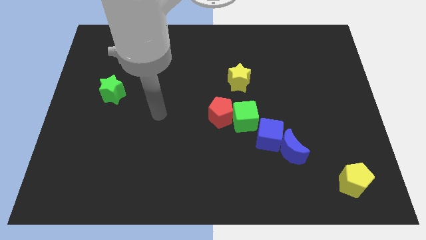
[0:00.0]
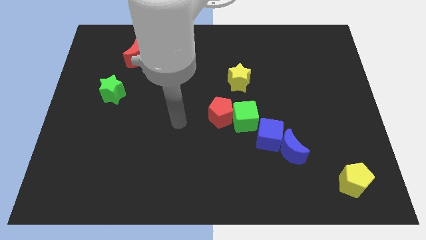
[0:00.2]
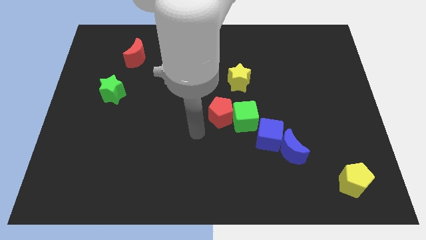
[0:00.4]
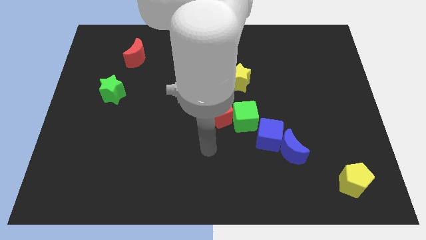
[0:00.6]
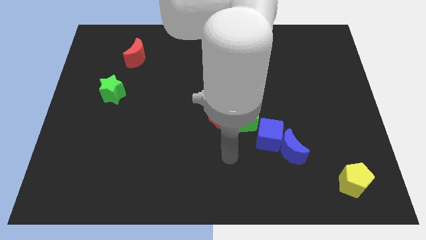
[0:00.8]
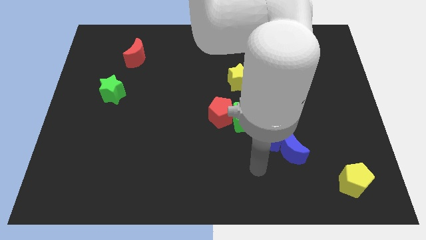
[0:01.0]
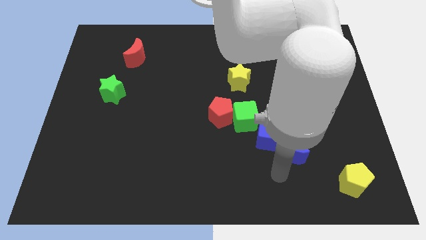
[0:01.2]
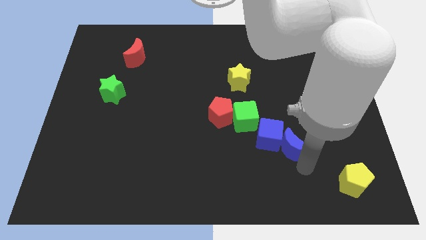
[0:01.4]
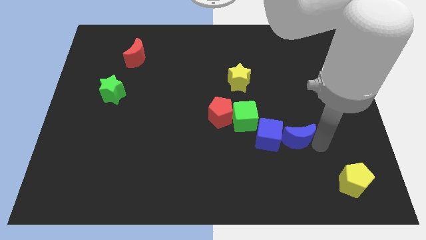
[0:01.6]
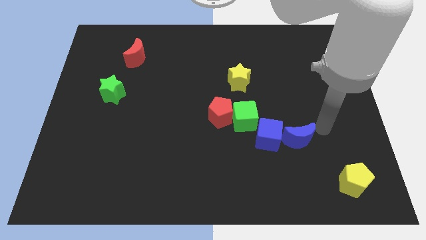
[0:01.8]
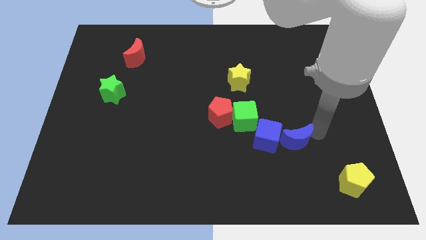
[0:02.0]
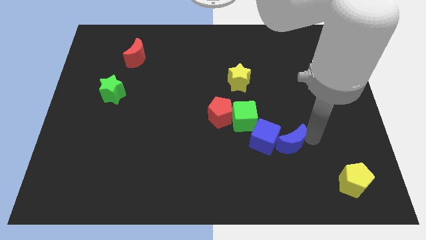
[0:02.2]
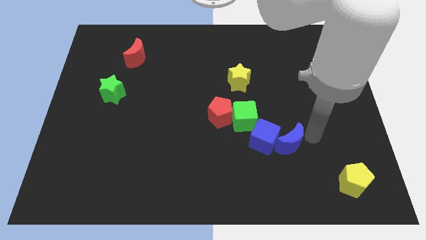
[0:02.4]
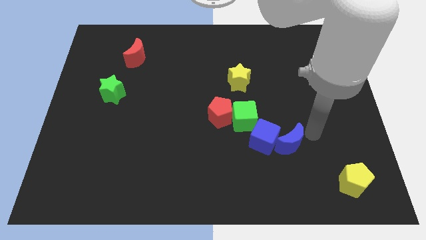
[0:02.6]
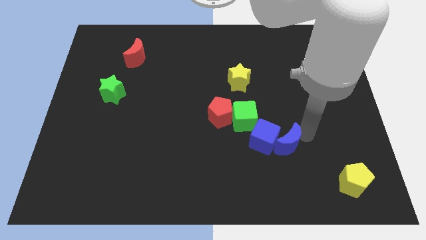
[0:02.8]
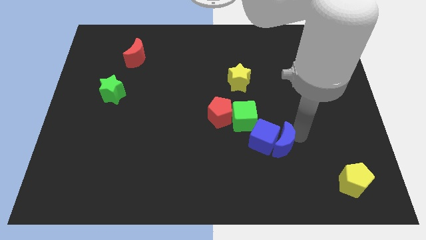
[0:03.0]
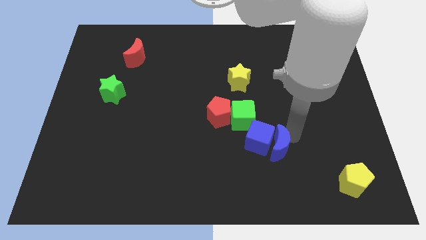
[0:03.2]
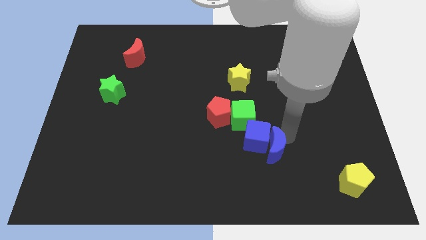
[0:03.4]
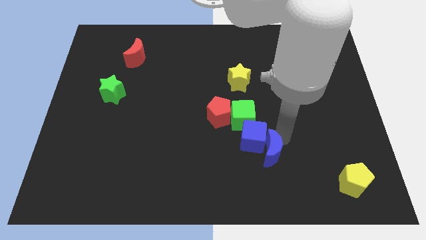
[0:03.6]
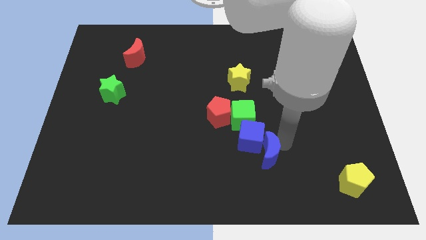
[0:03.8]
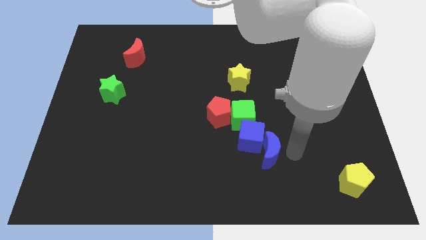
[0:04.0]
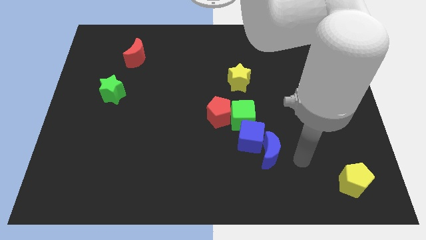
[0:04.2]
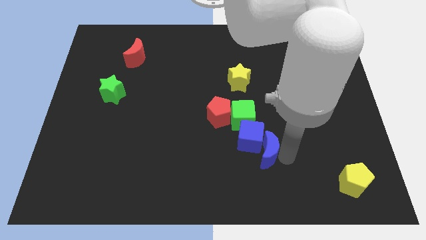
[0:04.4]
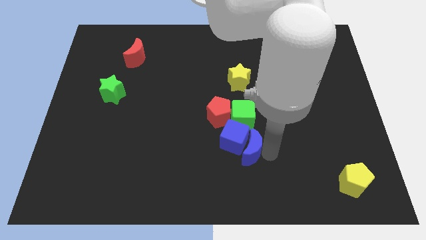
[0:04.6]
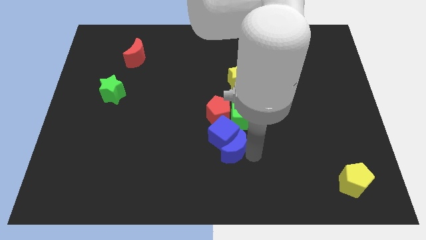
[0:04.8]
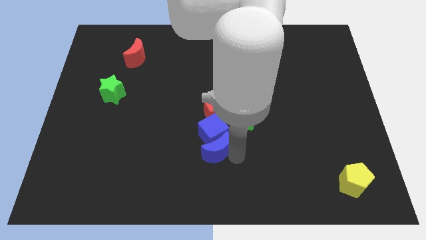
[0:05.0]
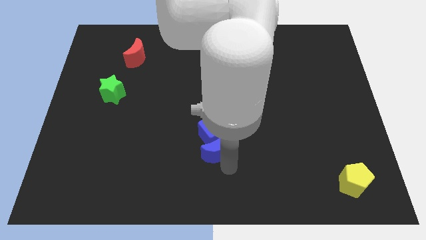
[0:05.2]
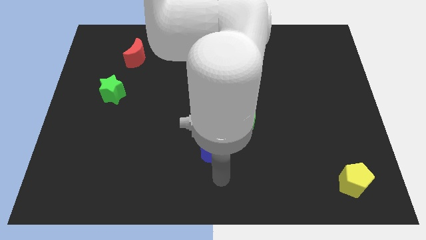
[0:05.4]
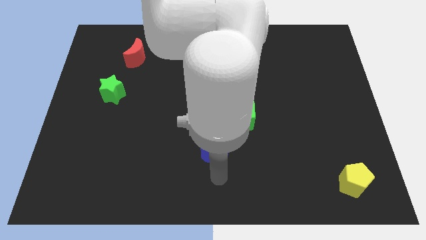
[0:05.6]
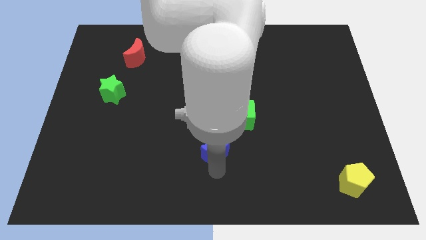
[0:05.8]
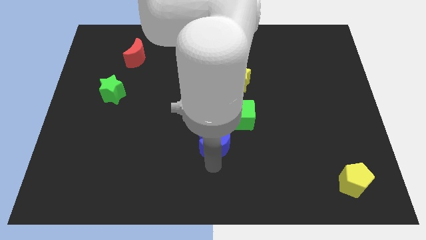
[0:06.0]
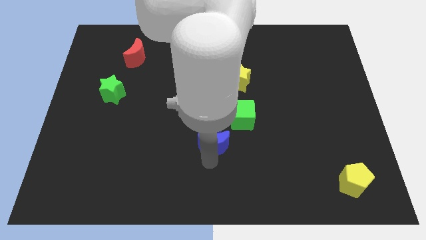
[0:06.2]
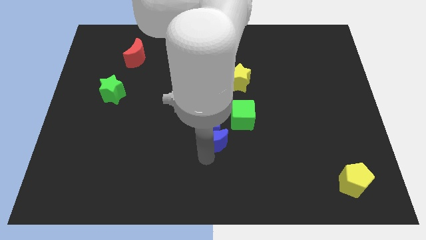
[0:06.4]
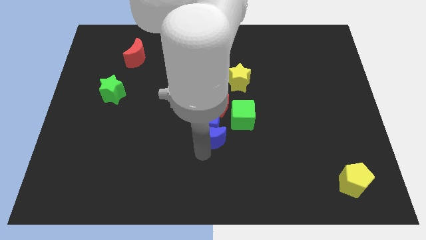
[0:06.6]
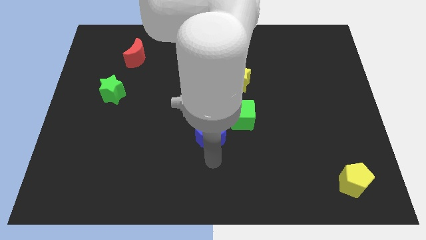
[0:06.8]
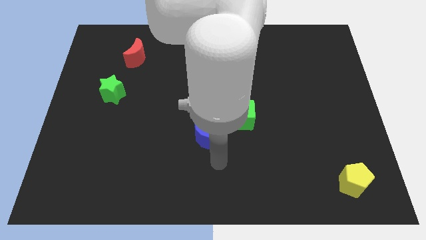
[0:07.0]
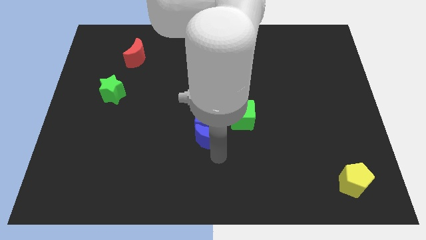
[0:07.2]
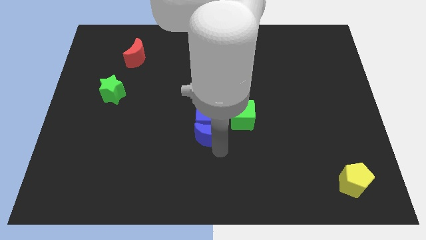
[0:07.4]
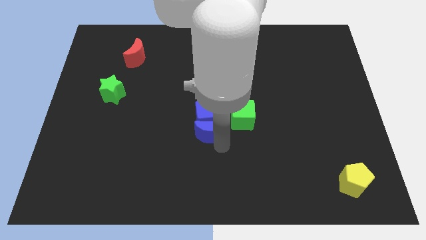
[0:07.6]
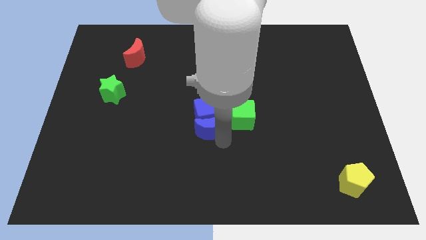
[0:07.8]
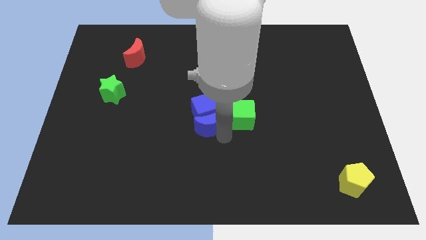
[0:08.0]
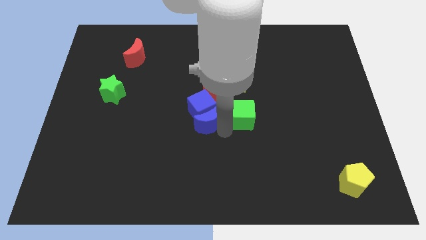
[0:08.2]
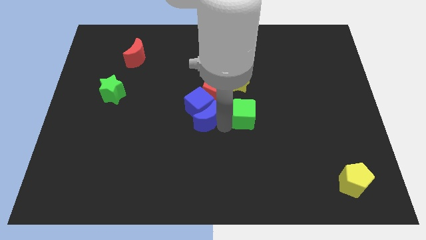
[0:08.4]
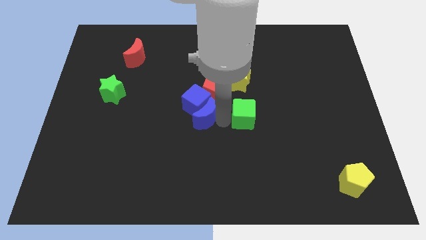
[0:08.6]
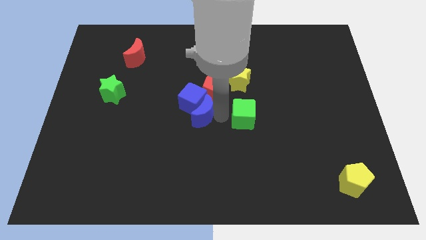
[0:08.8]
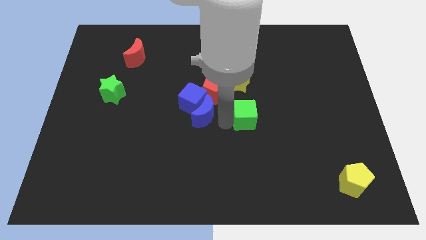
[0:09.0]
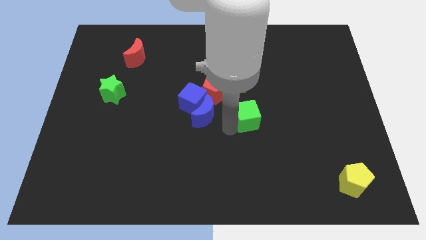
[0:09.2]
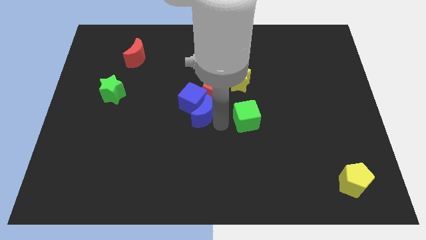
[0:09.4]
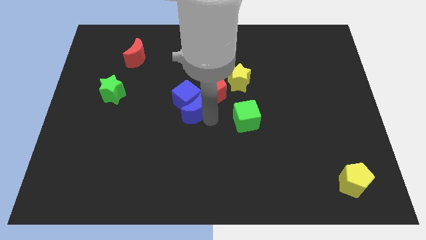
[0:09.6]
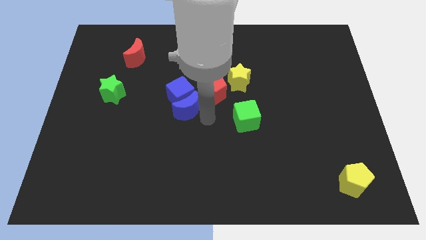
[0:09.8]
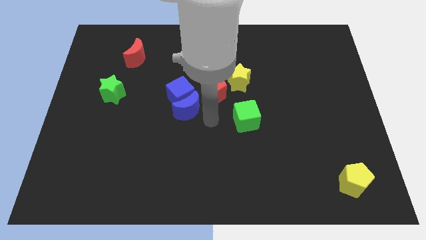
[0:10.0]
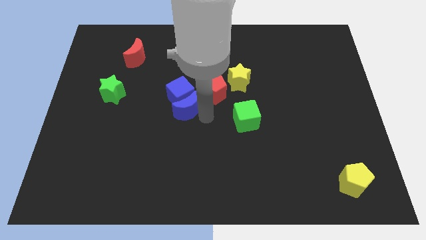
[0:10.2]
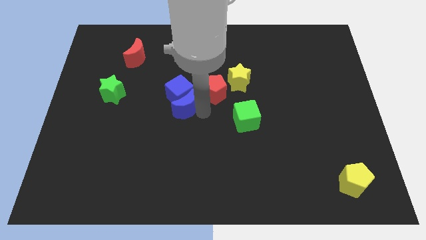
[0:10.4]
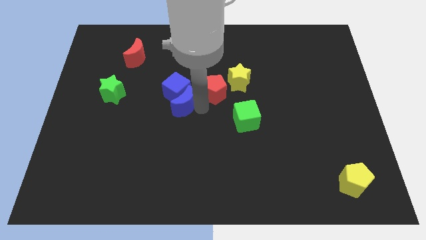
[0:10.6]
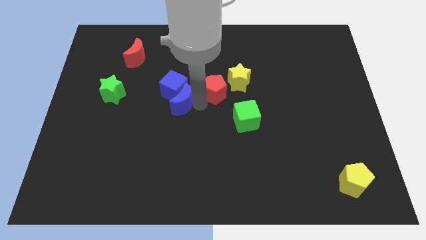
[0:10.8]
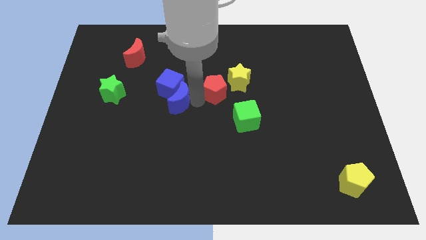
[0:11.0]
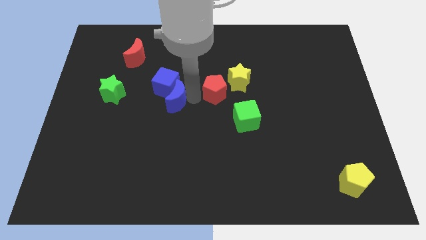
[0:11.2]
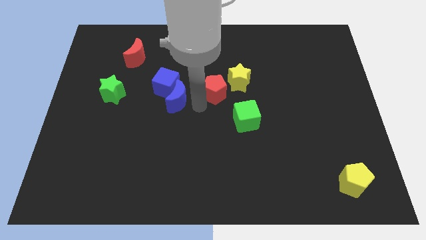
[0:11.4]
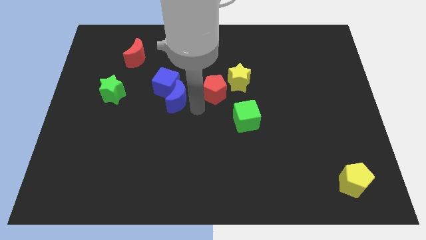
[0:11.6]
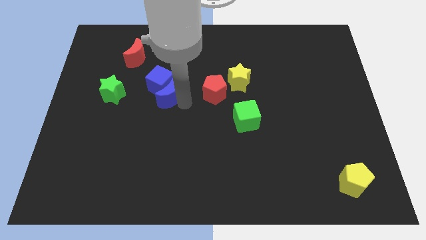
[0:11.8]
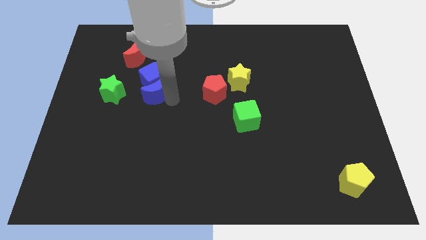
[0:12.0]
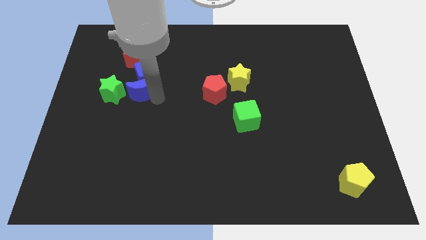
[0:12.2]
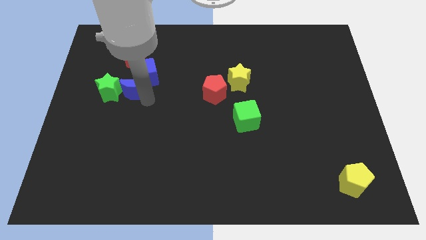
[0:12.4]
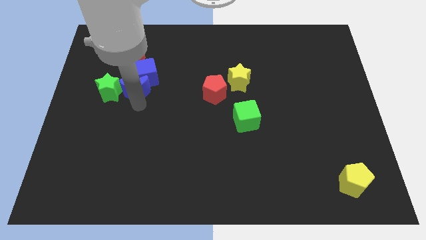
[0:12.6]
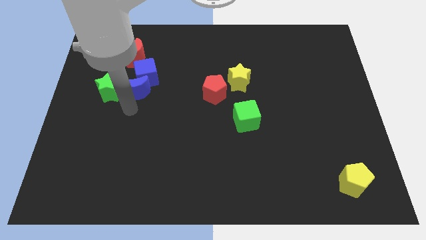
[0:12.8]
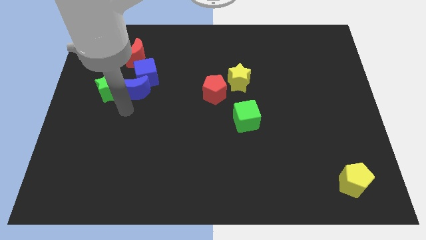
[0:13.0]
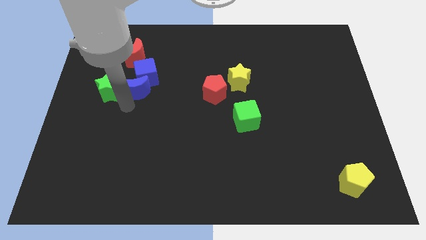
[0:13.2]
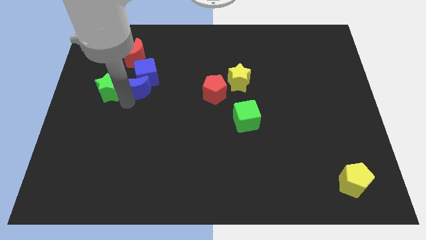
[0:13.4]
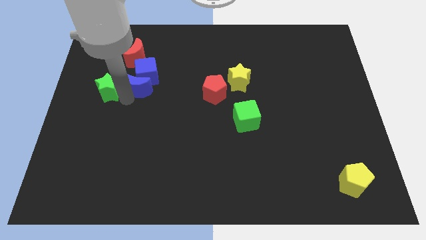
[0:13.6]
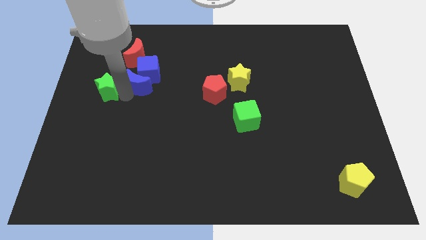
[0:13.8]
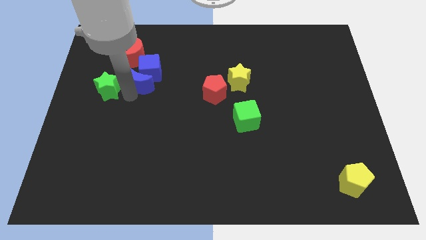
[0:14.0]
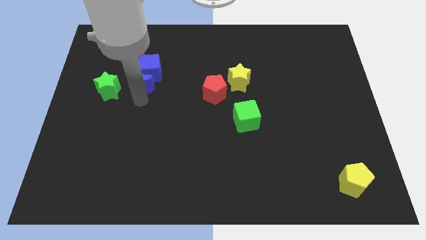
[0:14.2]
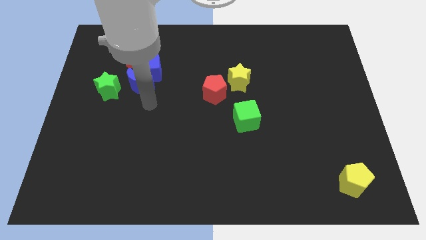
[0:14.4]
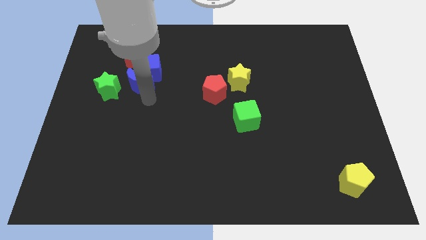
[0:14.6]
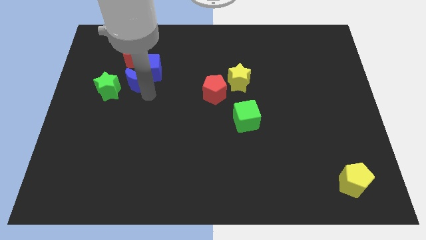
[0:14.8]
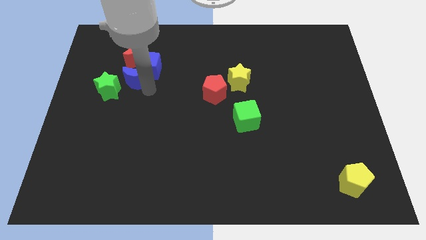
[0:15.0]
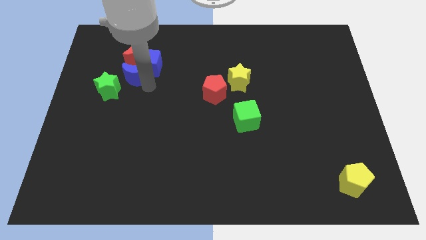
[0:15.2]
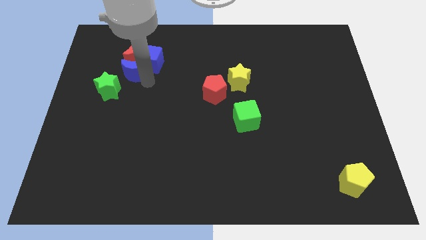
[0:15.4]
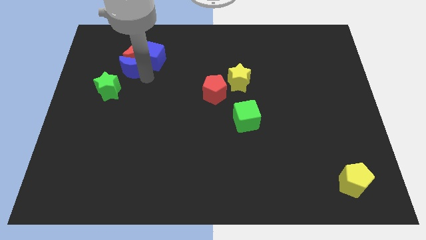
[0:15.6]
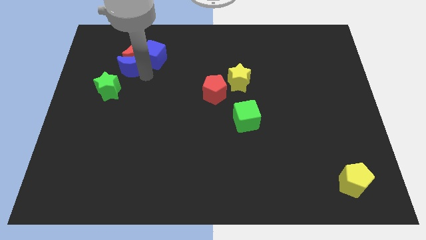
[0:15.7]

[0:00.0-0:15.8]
move the blue moon above the green star
